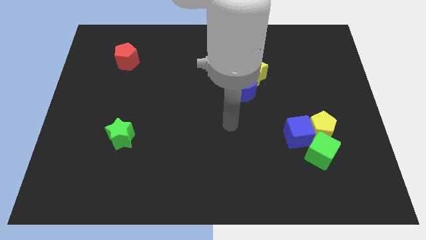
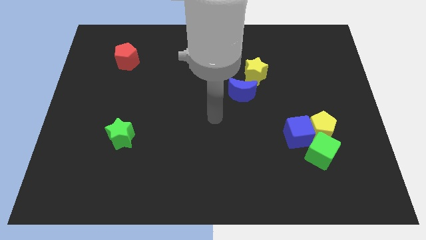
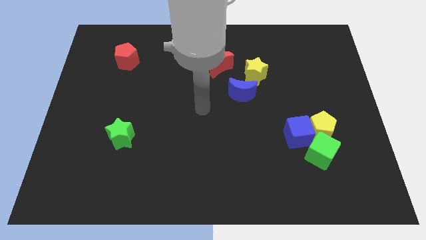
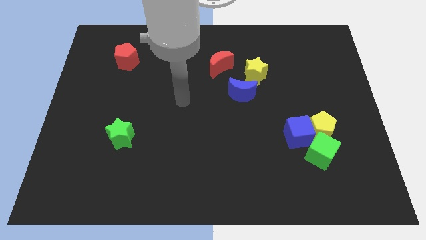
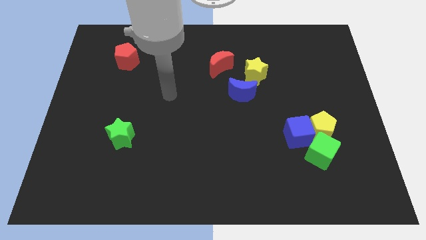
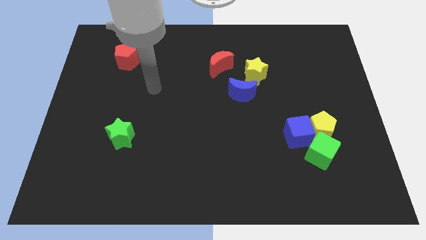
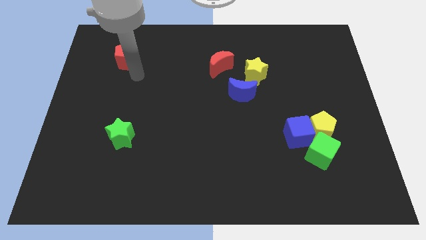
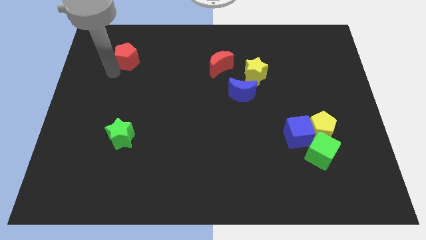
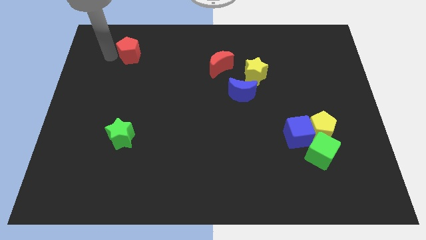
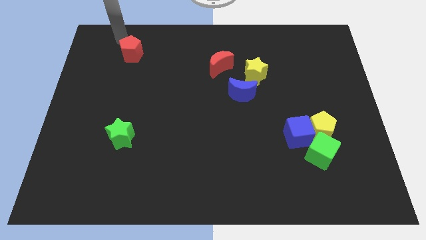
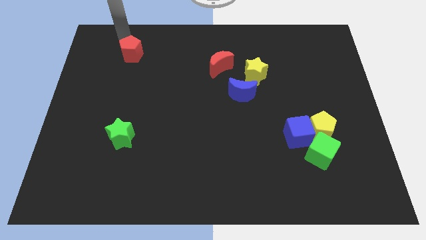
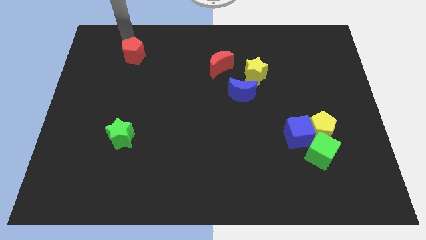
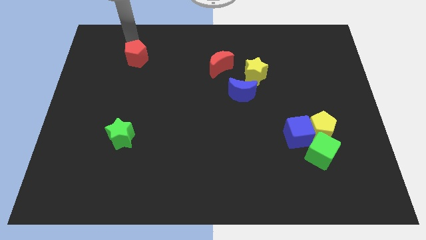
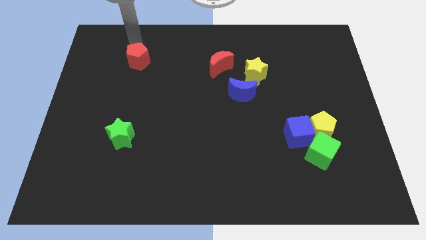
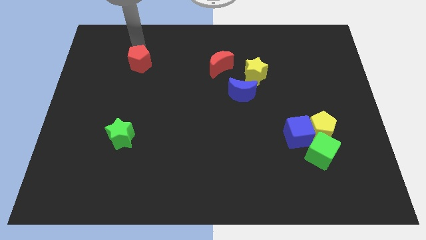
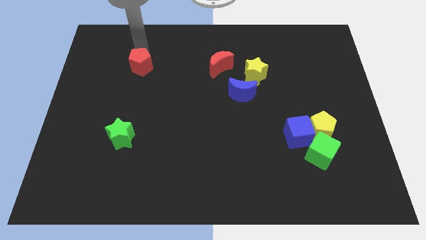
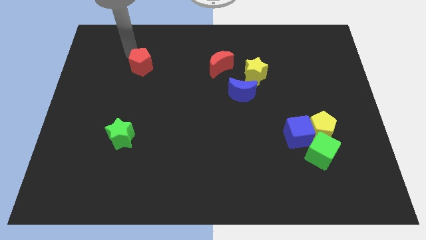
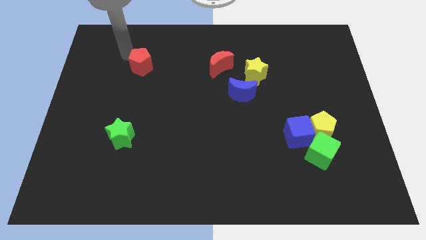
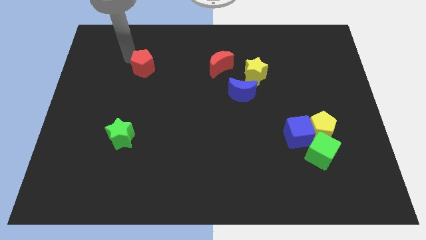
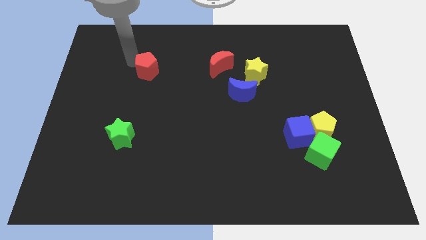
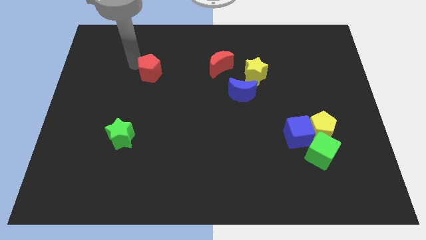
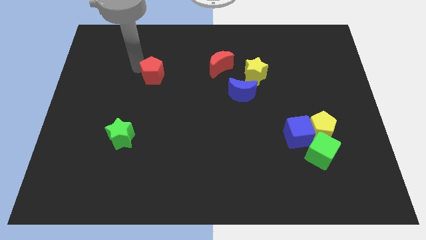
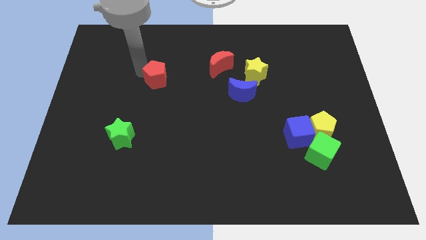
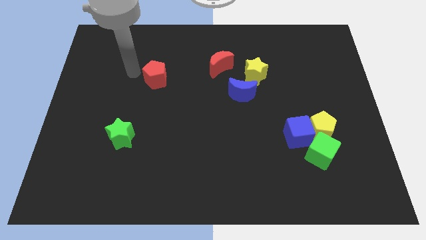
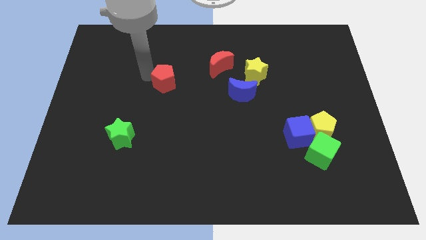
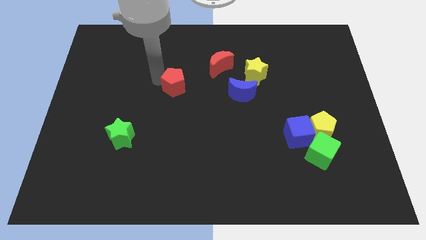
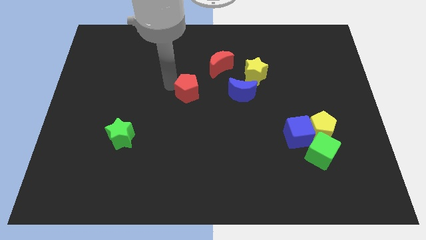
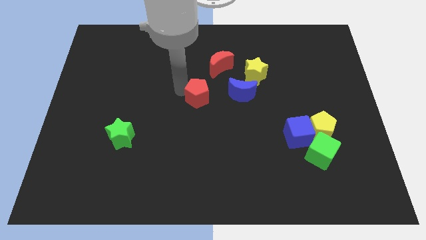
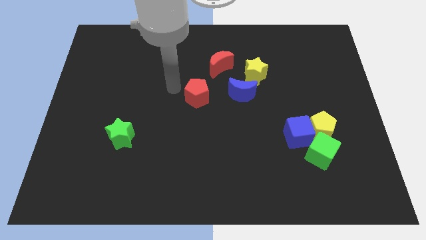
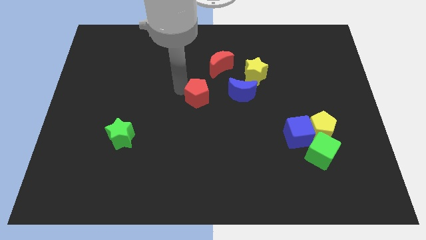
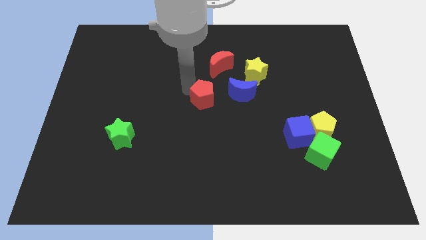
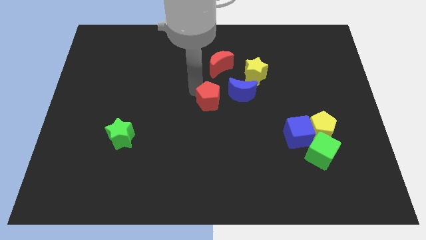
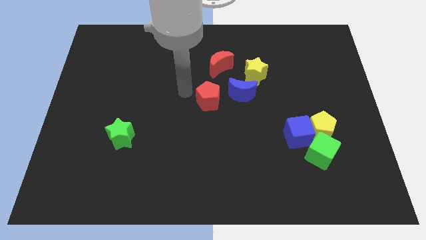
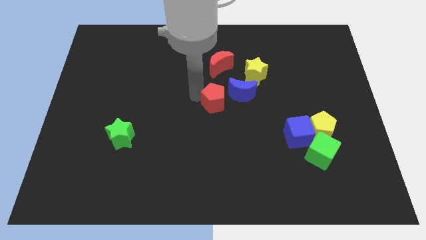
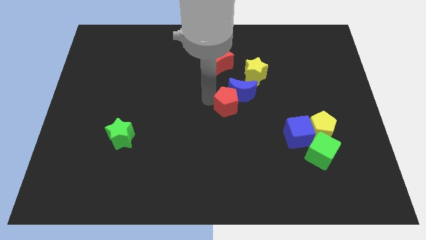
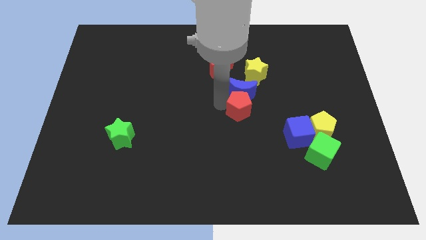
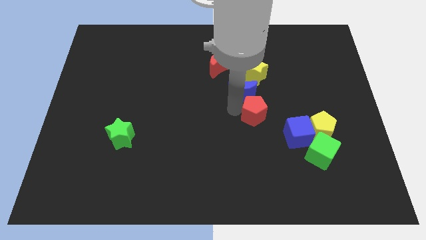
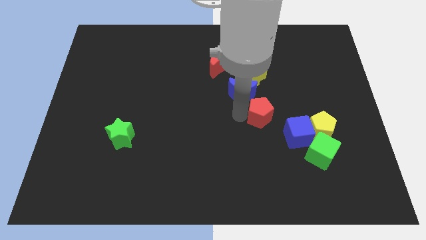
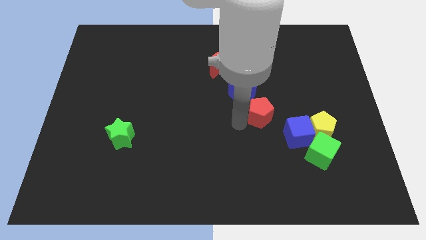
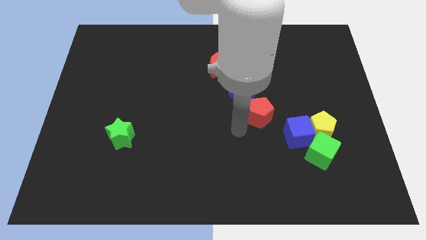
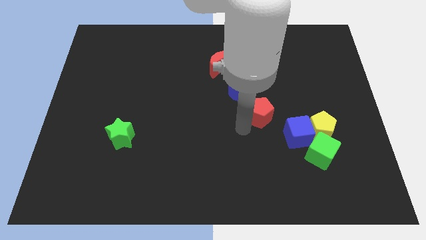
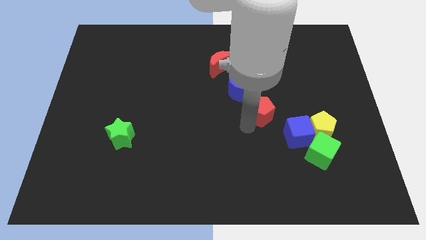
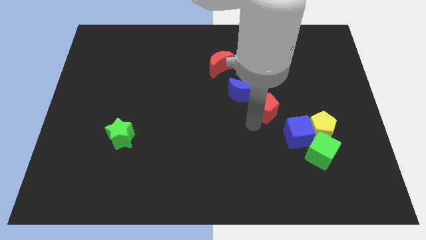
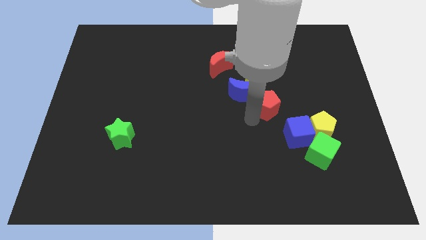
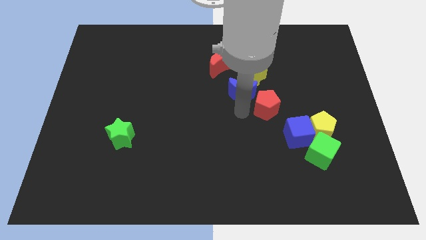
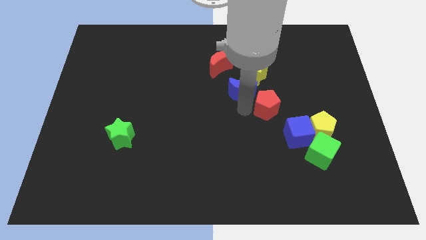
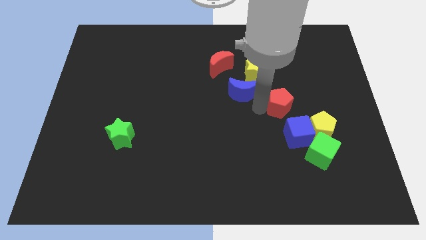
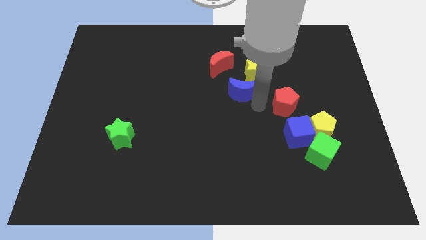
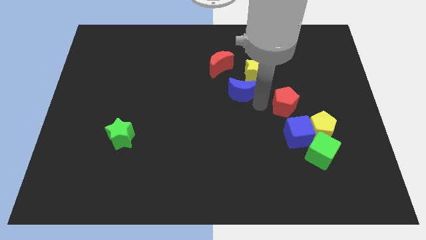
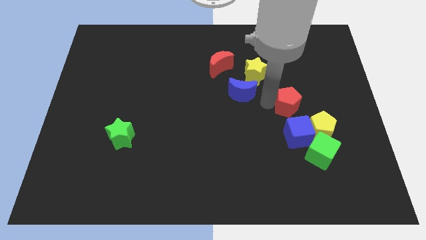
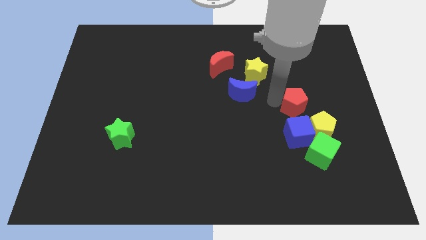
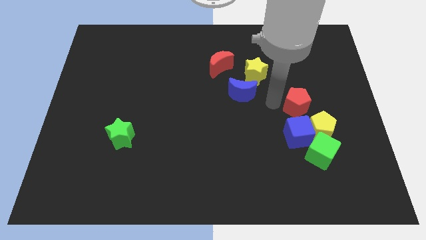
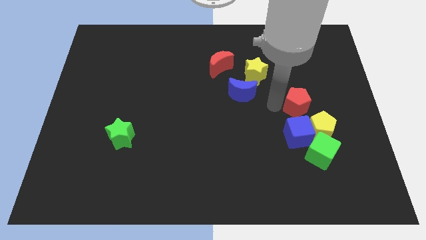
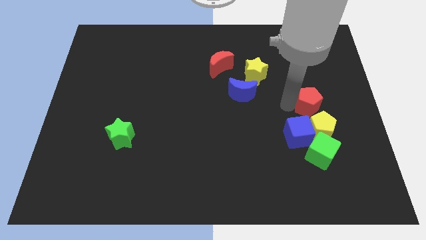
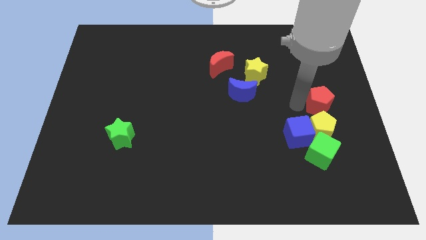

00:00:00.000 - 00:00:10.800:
move the red pentagon to the center right

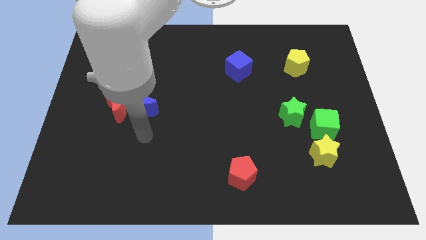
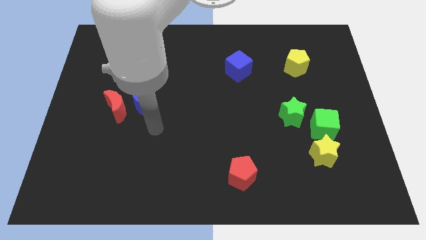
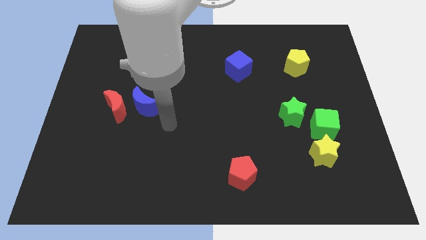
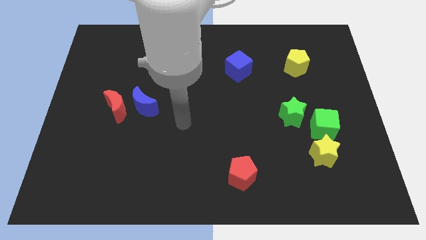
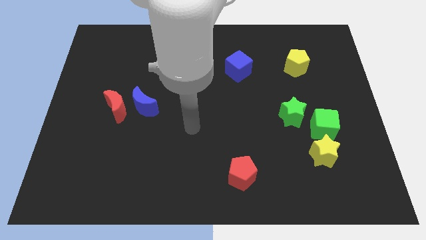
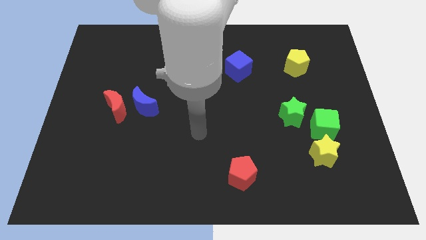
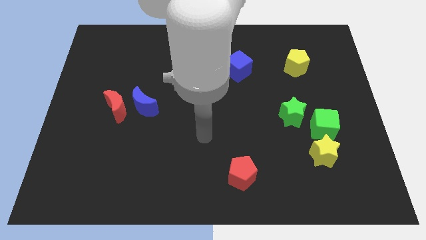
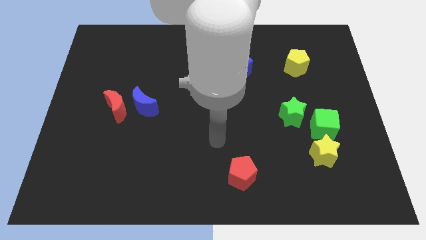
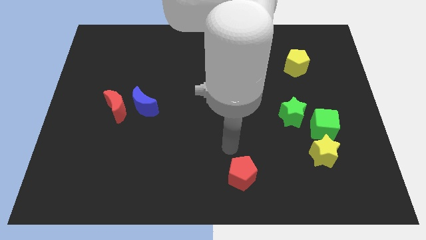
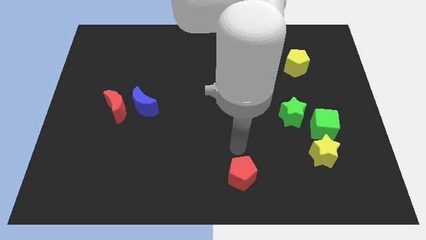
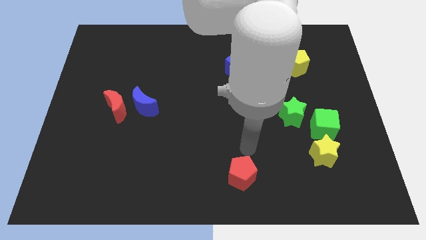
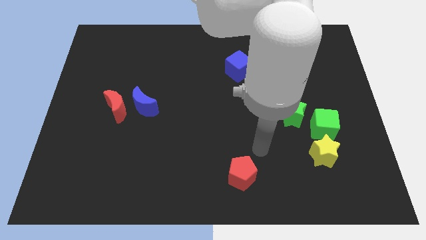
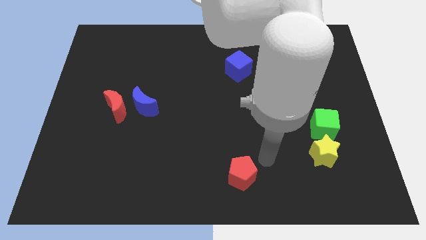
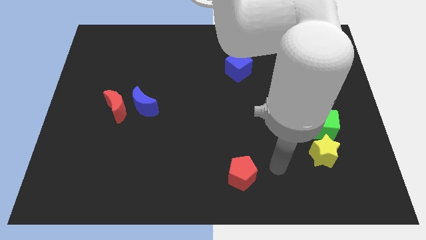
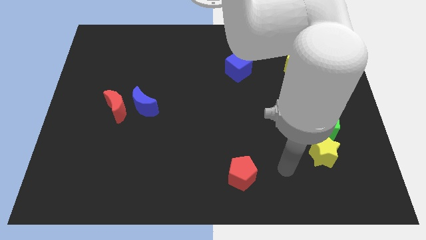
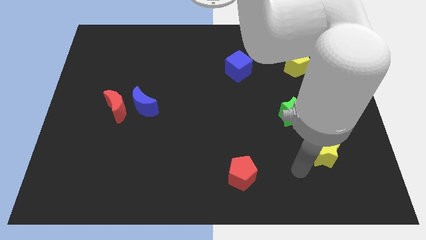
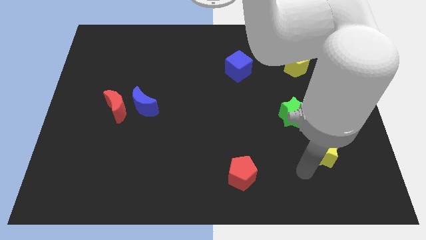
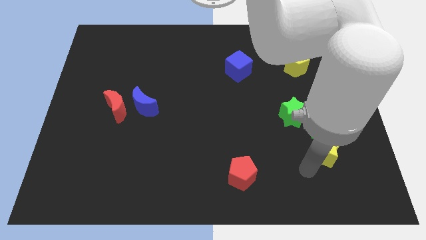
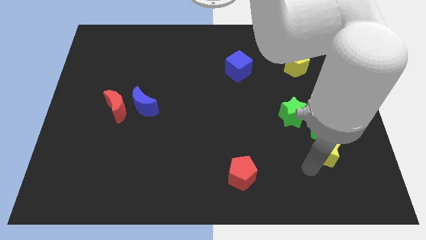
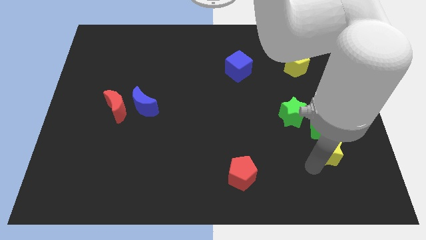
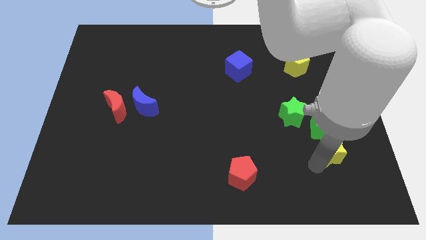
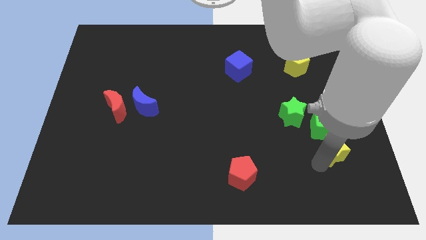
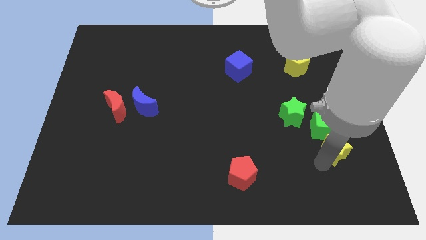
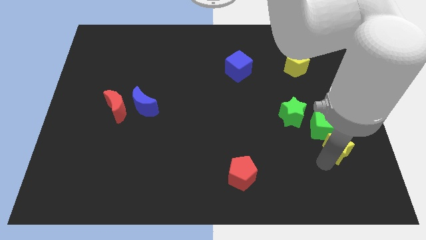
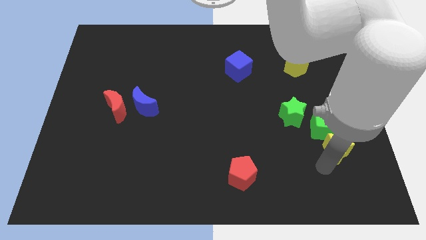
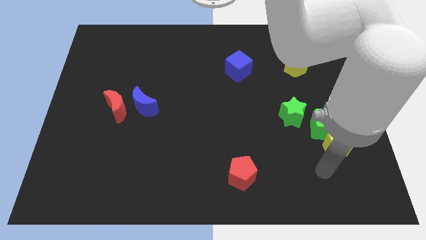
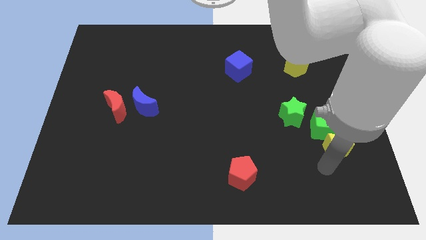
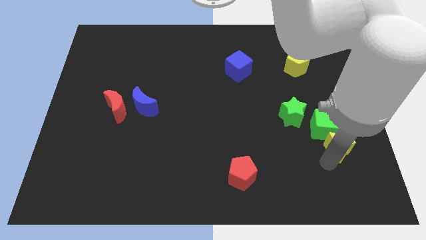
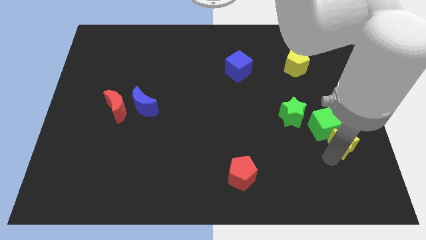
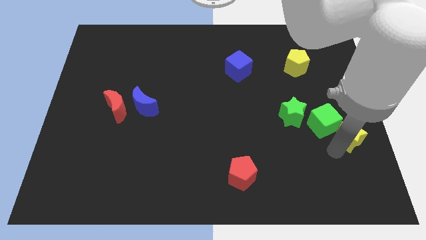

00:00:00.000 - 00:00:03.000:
put the yellow star to the right side
